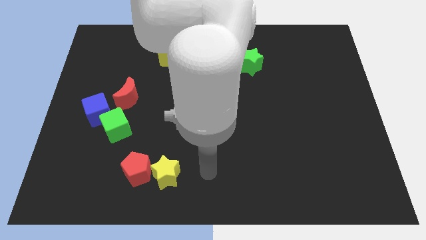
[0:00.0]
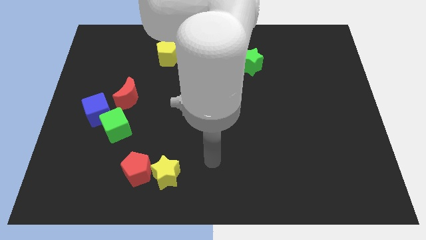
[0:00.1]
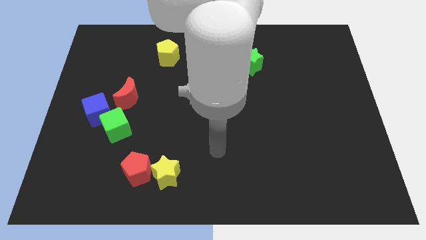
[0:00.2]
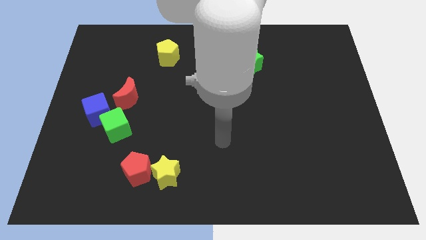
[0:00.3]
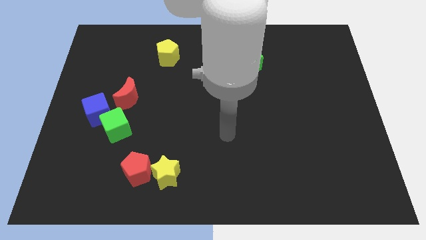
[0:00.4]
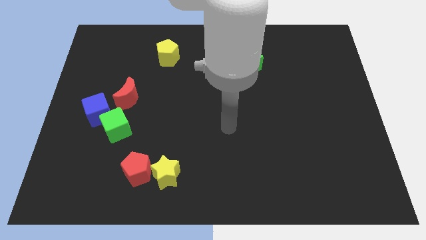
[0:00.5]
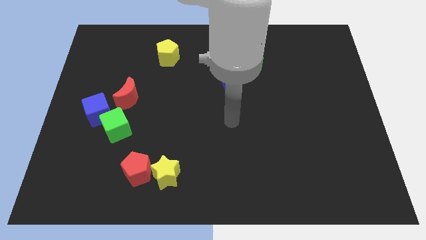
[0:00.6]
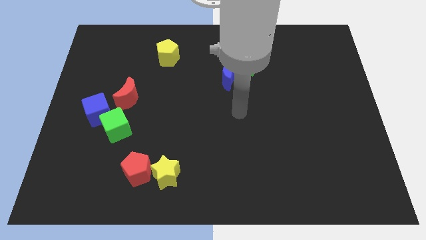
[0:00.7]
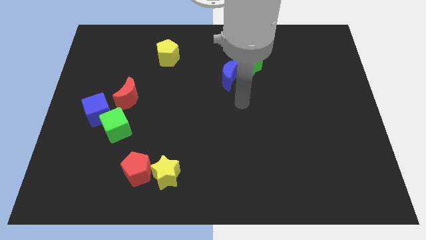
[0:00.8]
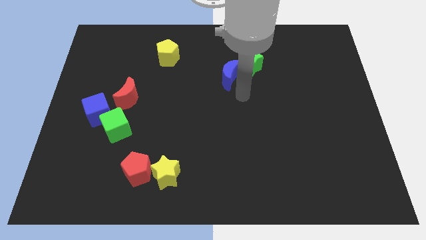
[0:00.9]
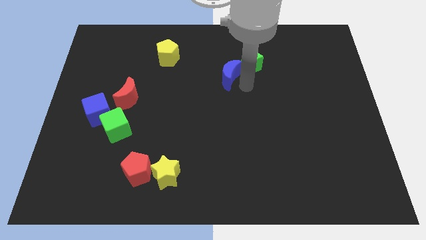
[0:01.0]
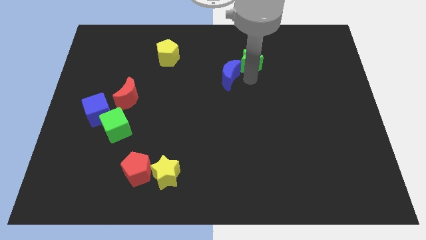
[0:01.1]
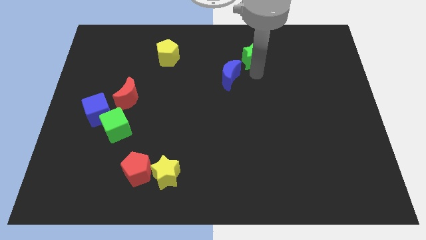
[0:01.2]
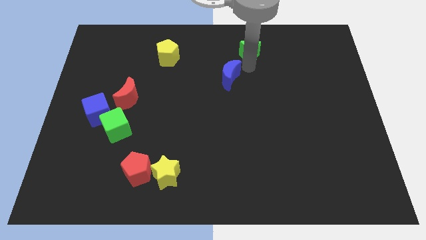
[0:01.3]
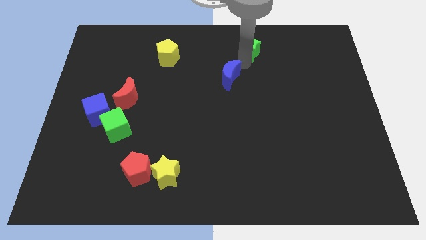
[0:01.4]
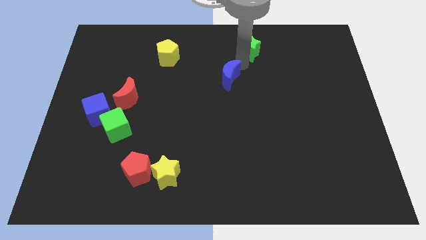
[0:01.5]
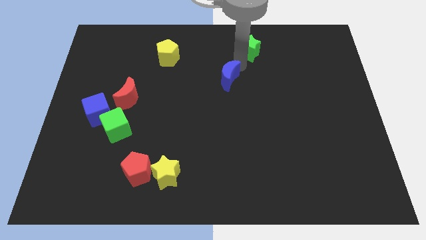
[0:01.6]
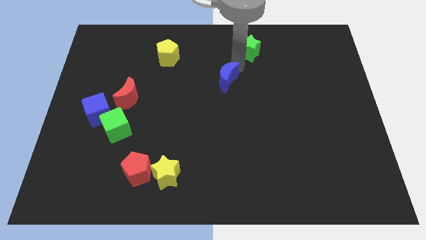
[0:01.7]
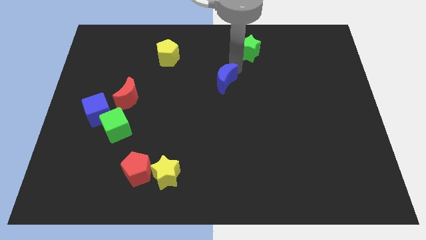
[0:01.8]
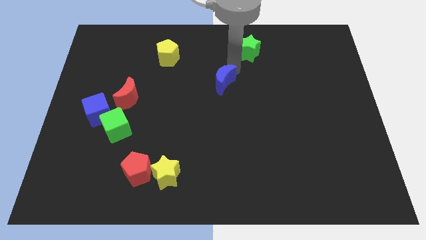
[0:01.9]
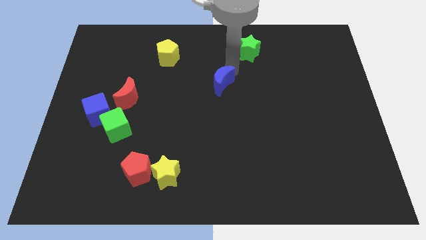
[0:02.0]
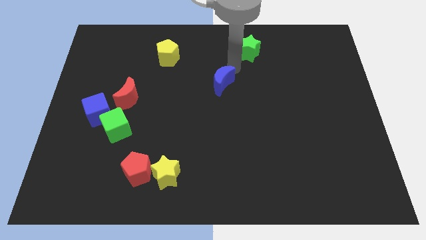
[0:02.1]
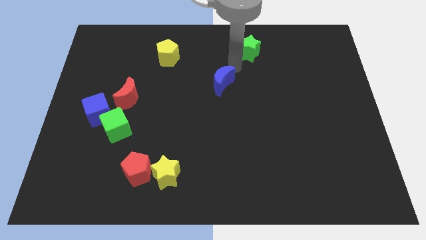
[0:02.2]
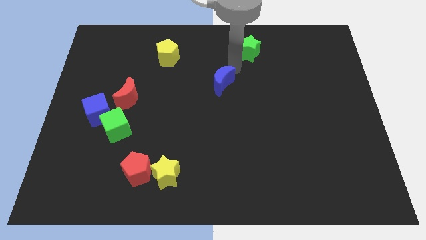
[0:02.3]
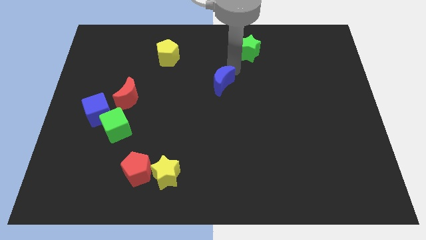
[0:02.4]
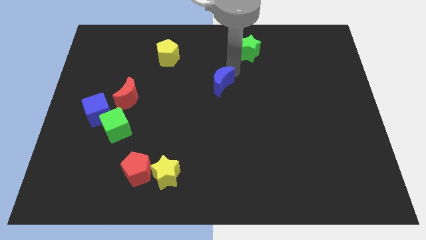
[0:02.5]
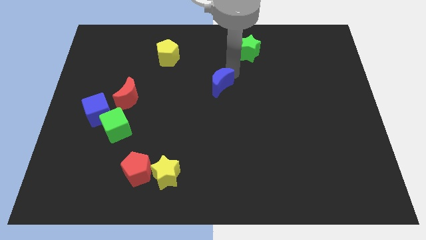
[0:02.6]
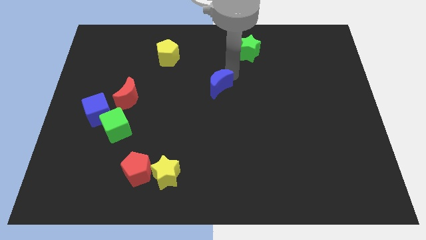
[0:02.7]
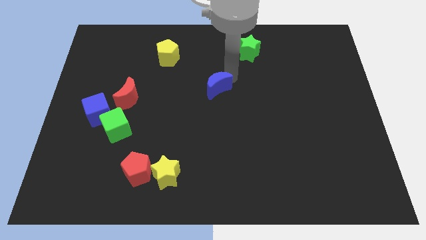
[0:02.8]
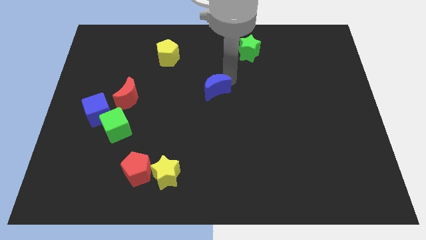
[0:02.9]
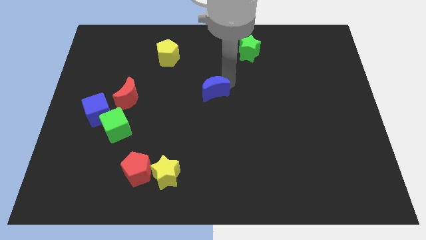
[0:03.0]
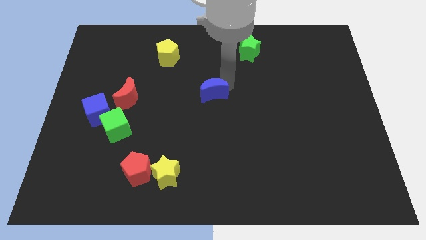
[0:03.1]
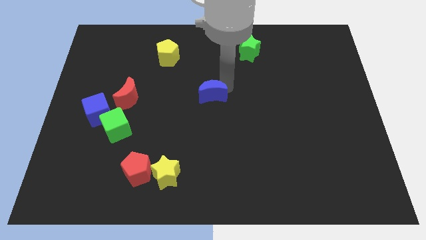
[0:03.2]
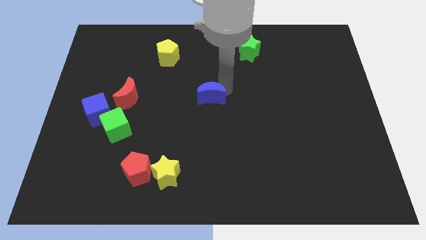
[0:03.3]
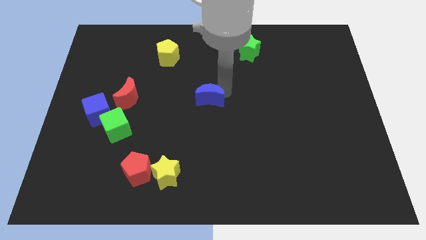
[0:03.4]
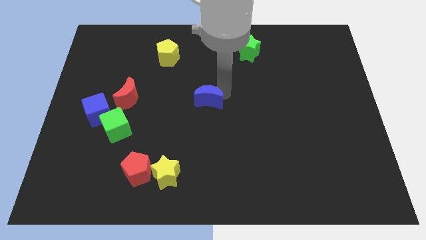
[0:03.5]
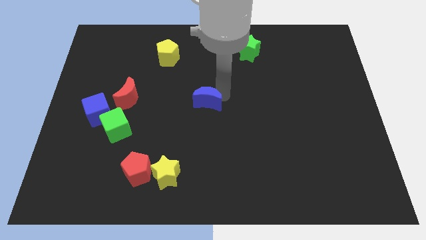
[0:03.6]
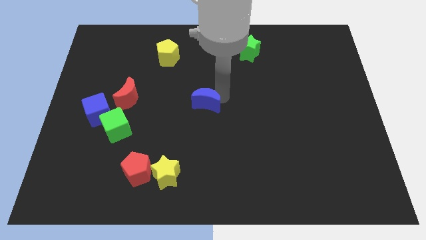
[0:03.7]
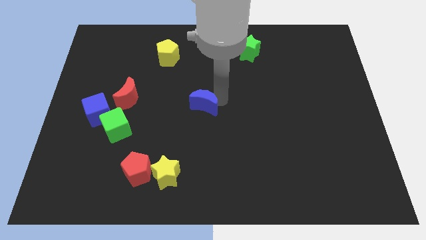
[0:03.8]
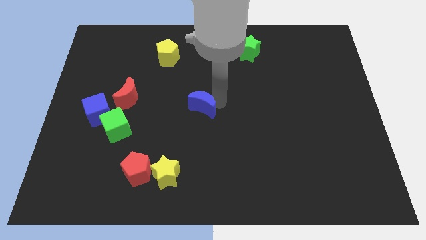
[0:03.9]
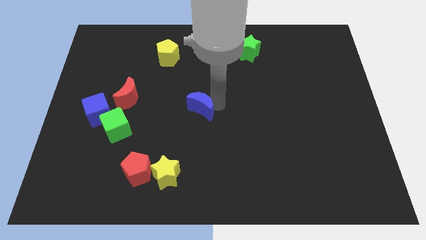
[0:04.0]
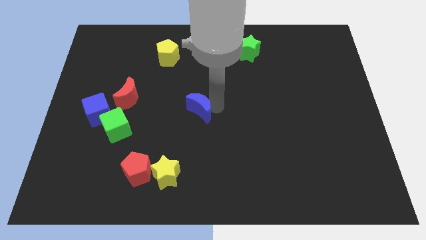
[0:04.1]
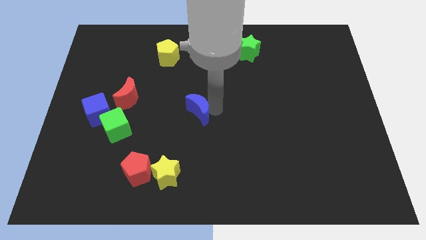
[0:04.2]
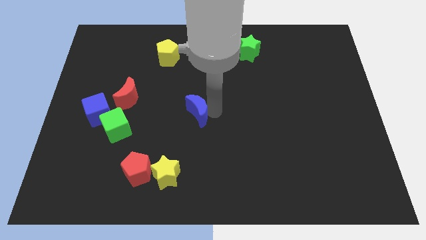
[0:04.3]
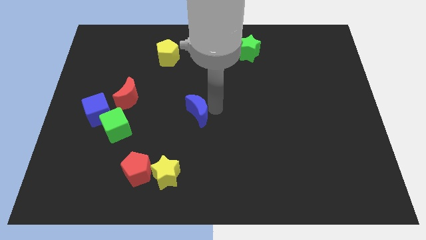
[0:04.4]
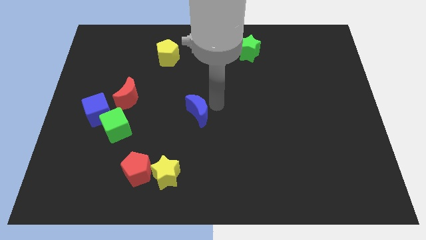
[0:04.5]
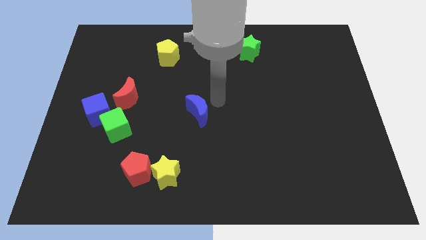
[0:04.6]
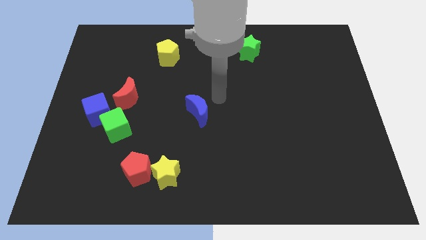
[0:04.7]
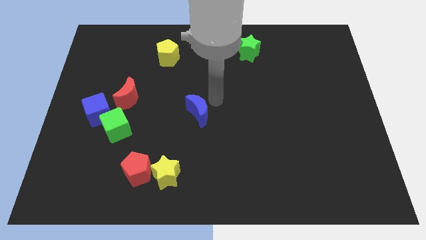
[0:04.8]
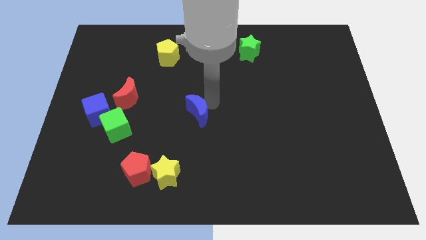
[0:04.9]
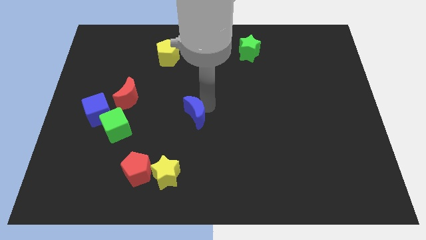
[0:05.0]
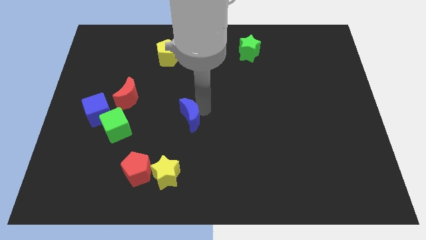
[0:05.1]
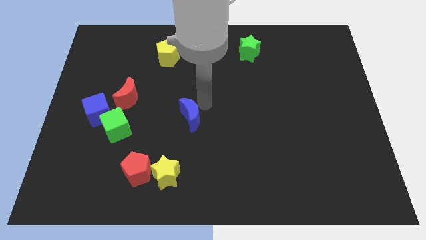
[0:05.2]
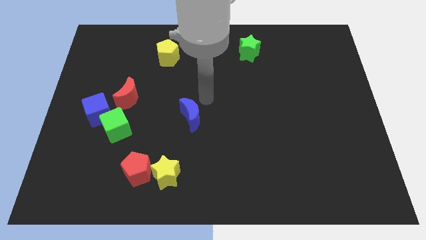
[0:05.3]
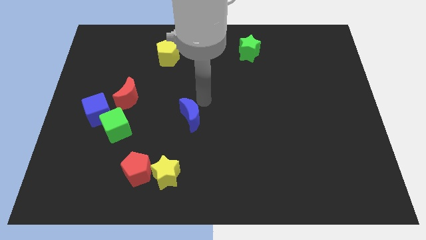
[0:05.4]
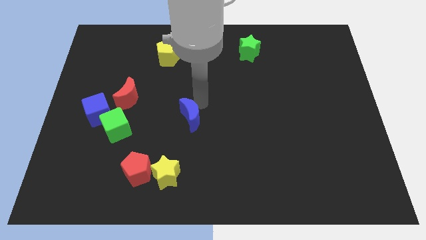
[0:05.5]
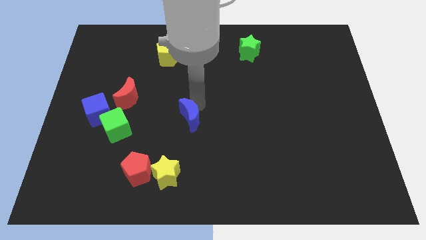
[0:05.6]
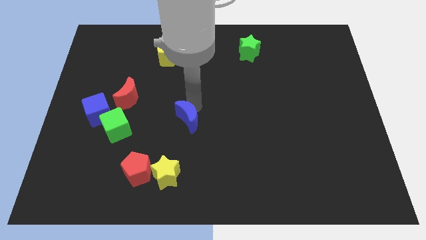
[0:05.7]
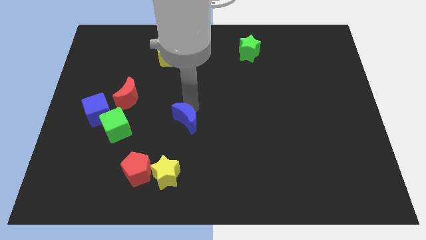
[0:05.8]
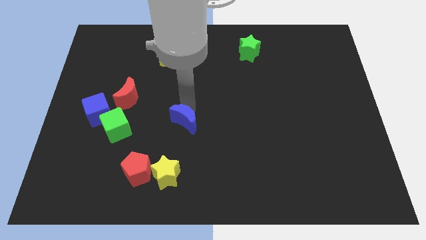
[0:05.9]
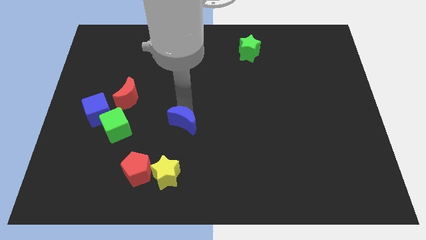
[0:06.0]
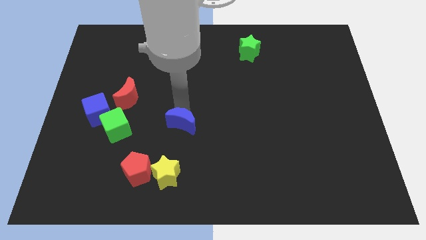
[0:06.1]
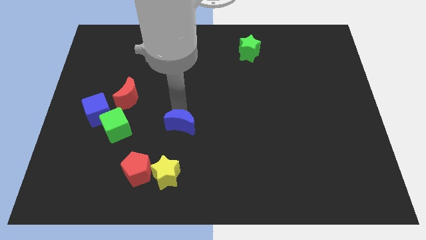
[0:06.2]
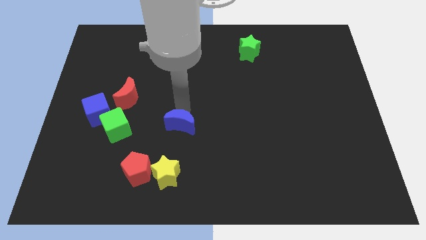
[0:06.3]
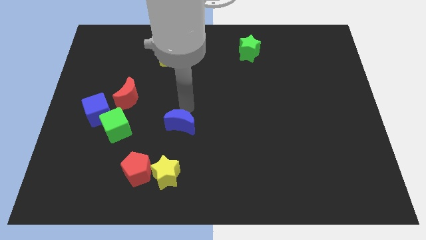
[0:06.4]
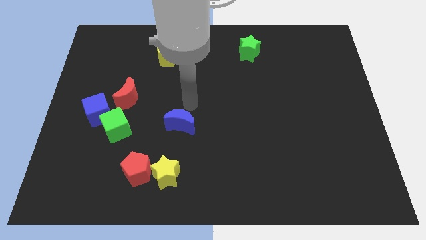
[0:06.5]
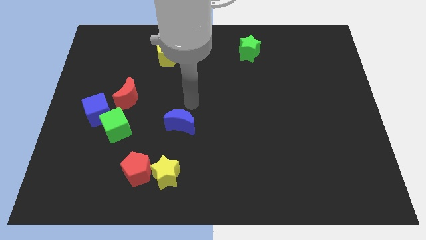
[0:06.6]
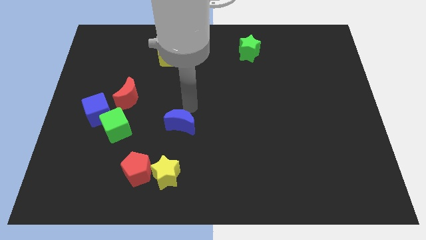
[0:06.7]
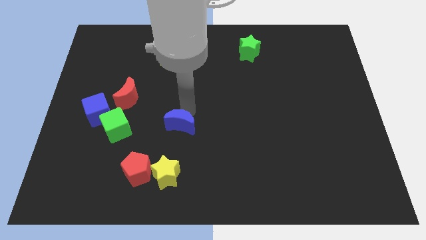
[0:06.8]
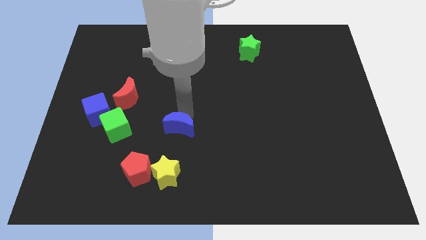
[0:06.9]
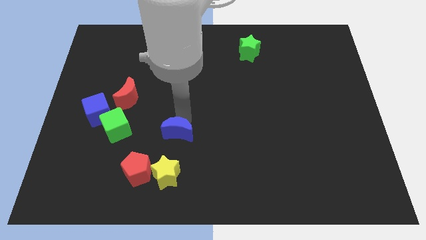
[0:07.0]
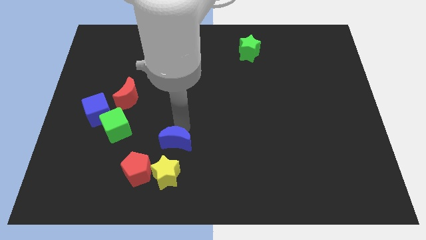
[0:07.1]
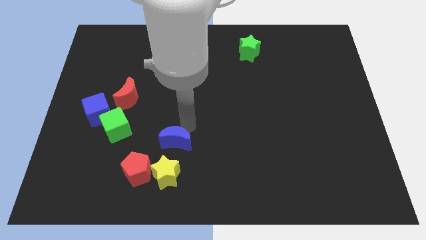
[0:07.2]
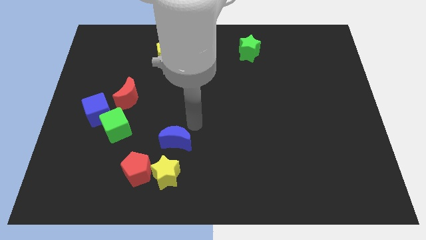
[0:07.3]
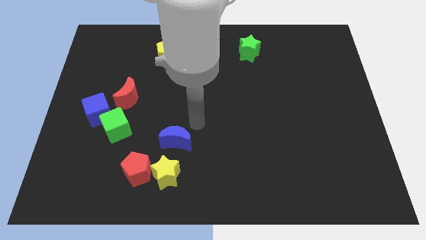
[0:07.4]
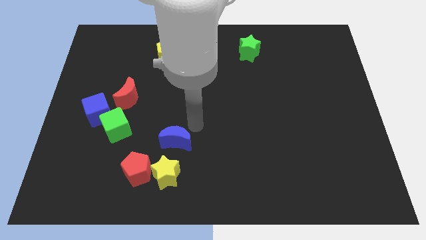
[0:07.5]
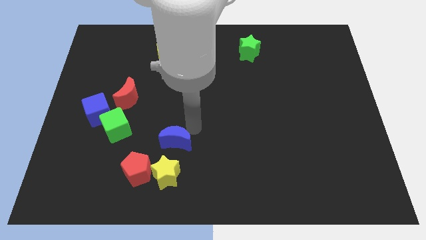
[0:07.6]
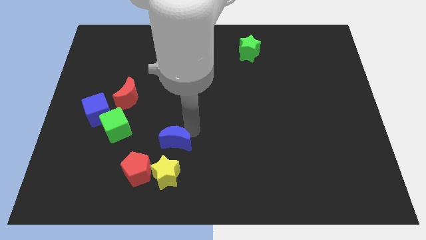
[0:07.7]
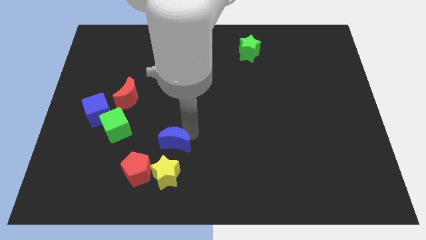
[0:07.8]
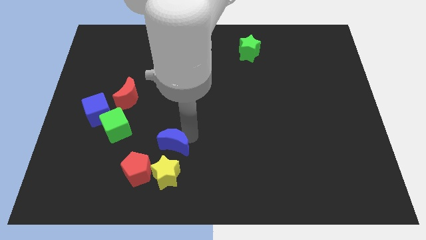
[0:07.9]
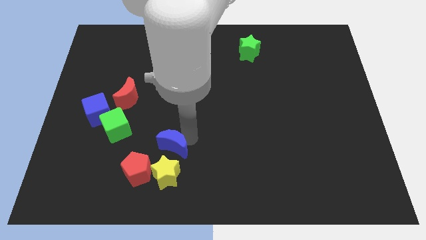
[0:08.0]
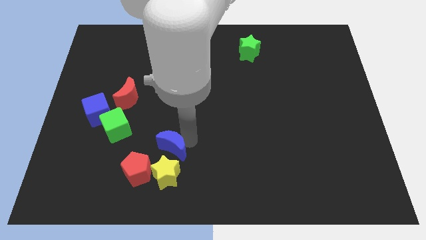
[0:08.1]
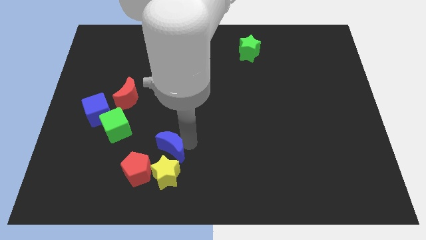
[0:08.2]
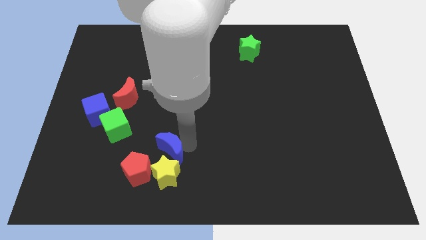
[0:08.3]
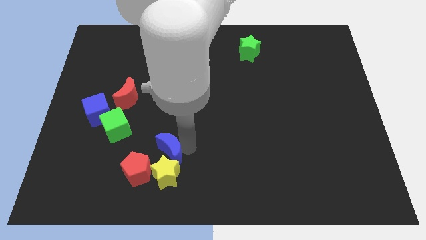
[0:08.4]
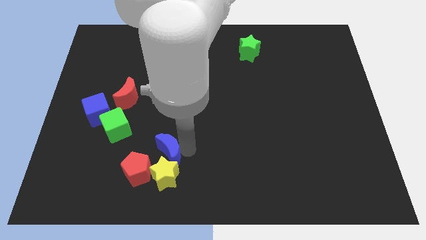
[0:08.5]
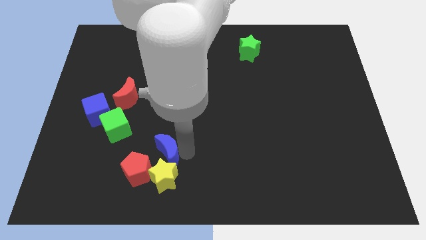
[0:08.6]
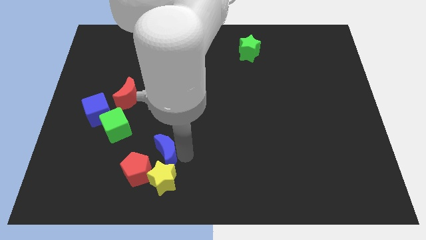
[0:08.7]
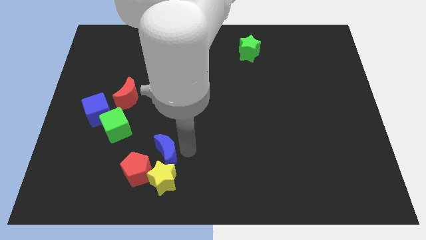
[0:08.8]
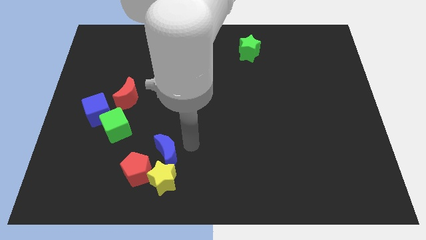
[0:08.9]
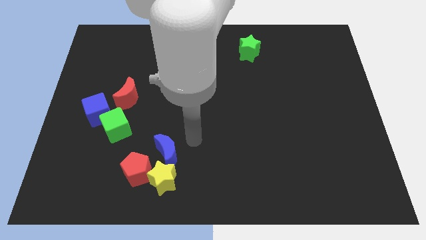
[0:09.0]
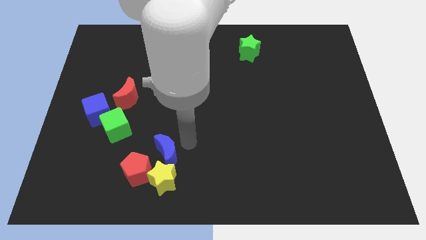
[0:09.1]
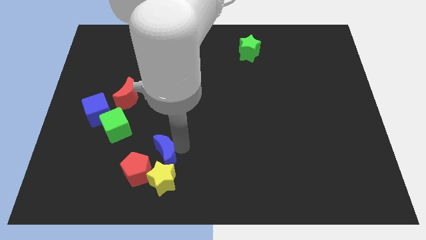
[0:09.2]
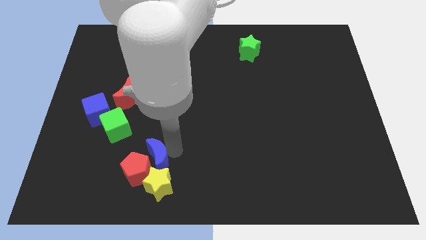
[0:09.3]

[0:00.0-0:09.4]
slide the blue moon next to the red pentagon
